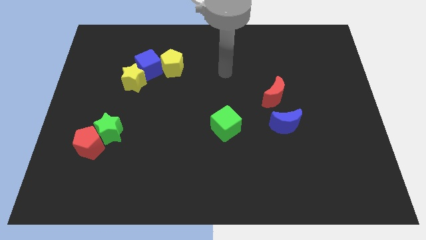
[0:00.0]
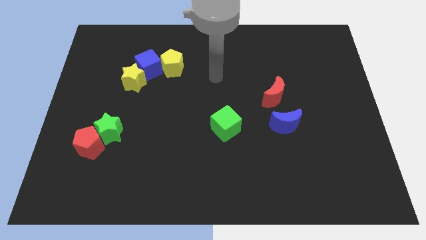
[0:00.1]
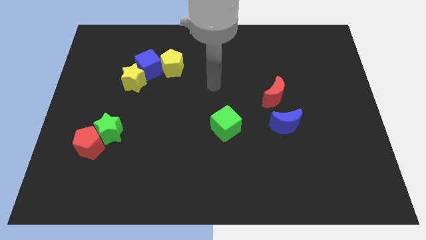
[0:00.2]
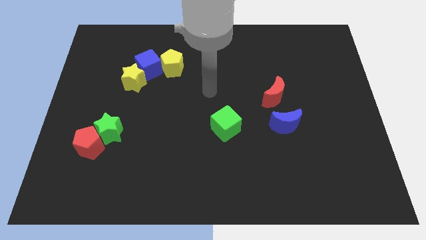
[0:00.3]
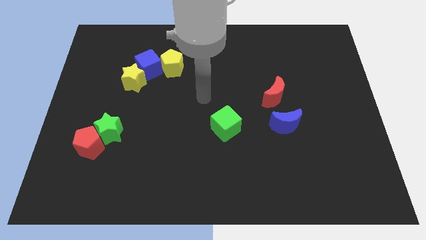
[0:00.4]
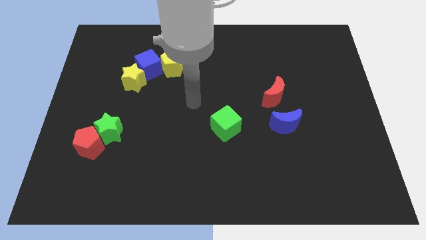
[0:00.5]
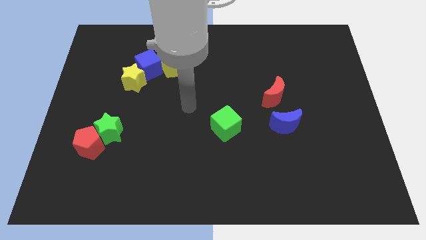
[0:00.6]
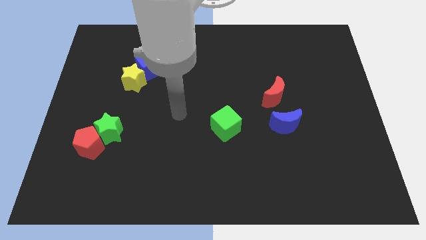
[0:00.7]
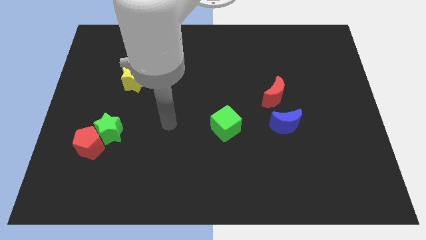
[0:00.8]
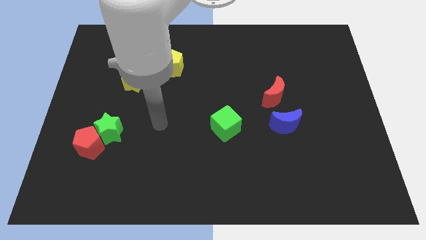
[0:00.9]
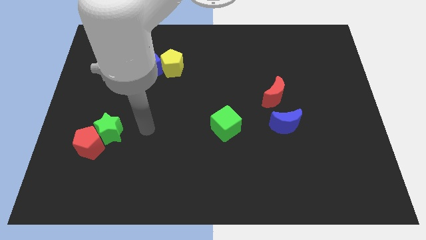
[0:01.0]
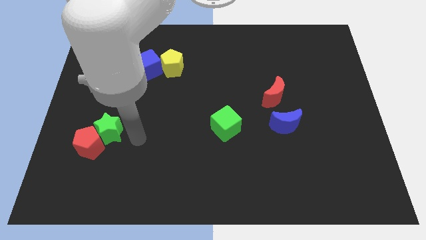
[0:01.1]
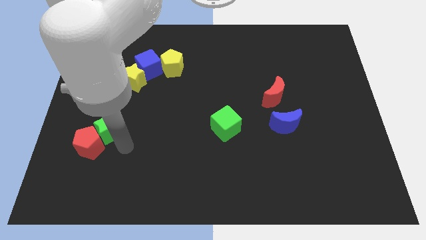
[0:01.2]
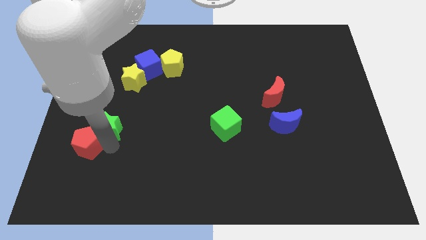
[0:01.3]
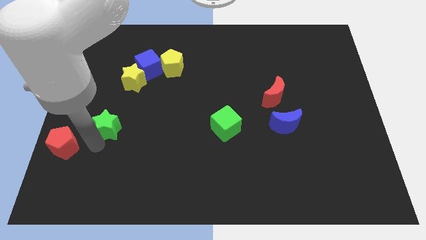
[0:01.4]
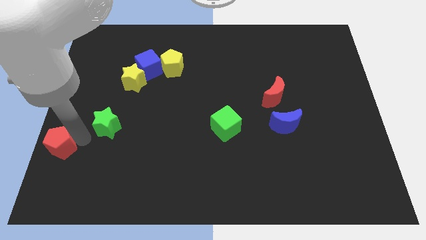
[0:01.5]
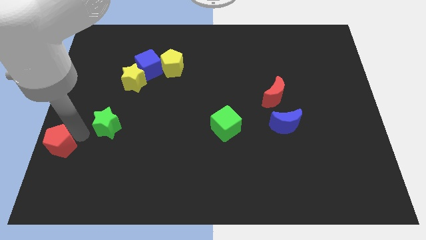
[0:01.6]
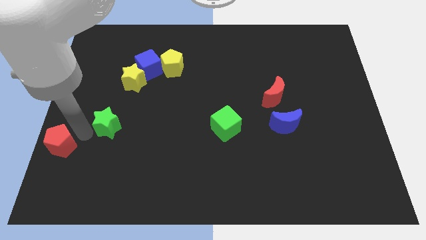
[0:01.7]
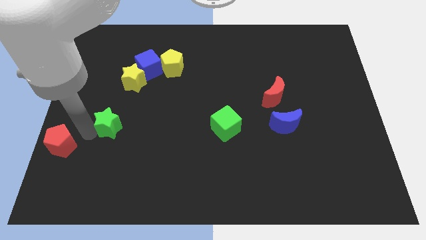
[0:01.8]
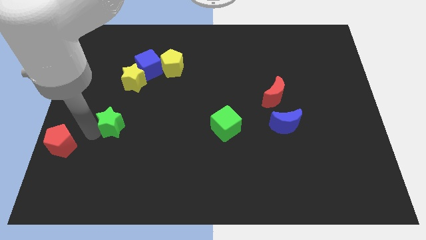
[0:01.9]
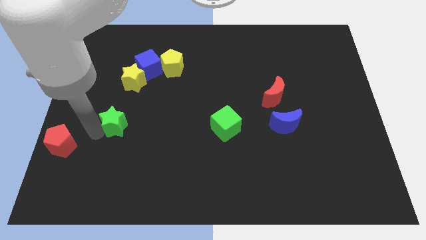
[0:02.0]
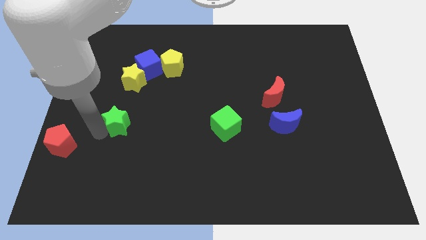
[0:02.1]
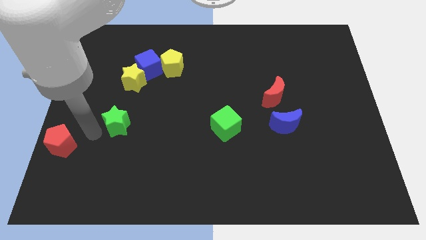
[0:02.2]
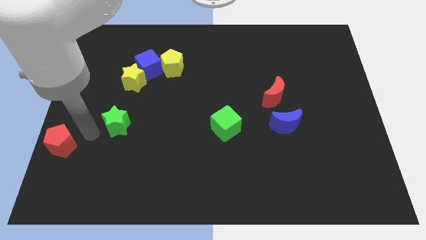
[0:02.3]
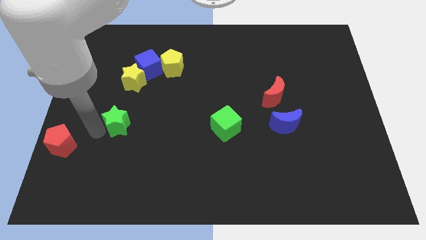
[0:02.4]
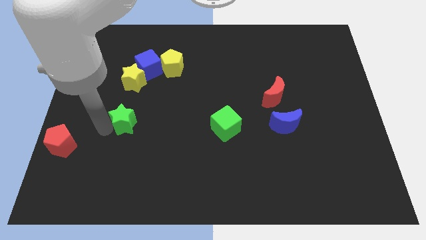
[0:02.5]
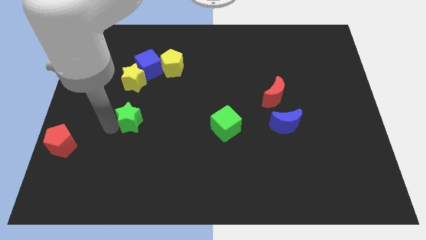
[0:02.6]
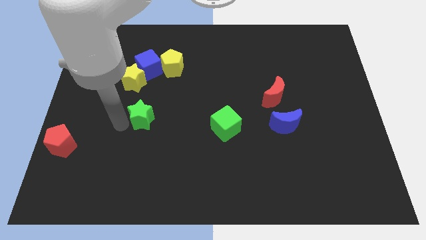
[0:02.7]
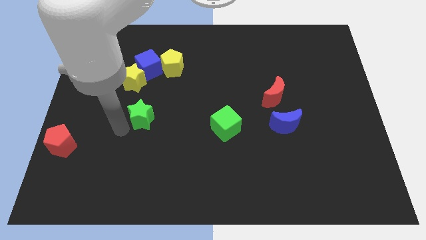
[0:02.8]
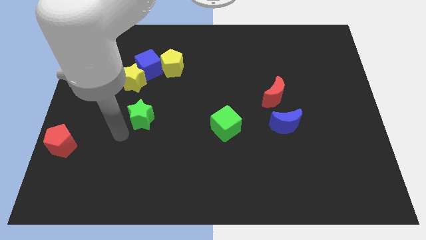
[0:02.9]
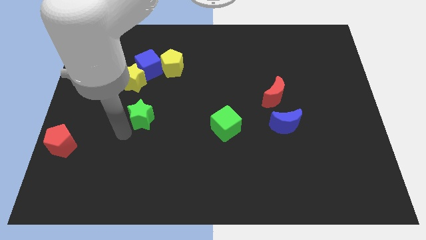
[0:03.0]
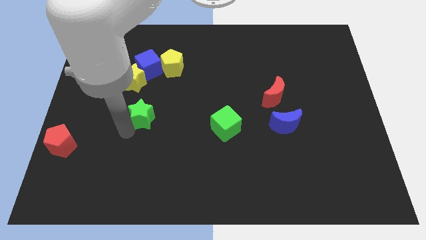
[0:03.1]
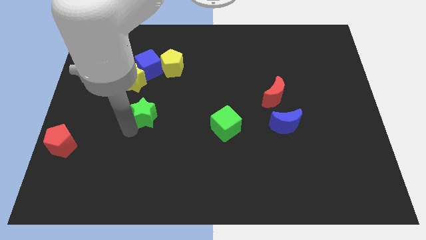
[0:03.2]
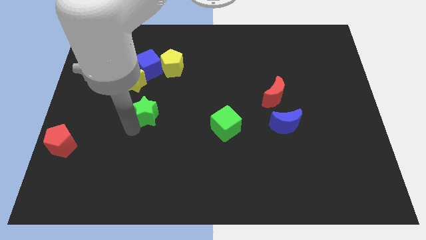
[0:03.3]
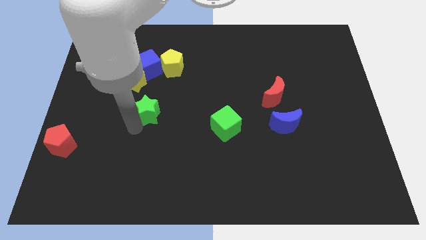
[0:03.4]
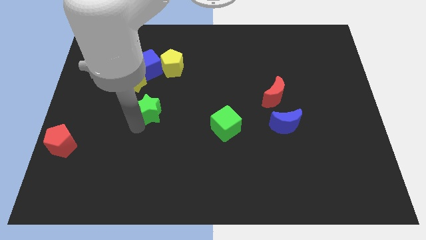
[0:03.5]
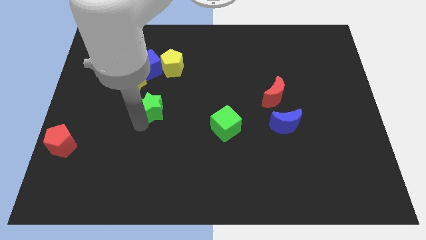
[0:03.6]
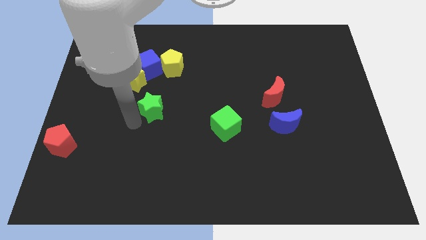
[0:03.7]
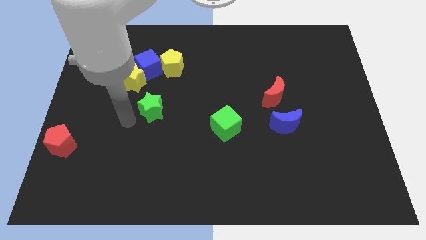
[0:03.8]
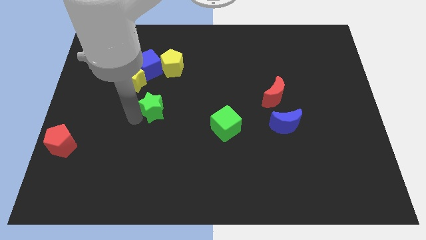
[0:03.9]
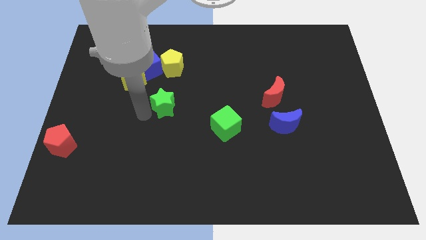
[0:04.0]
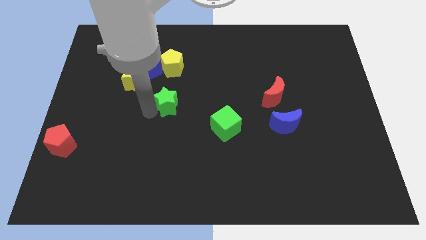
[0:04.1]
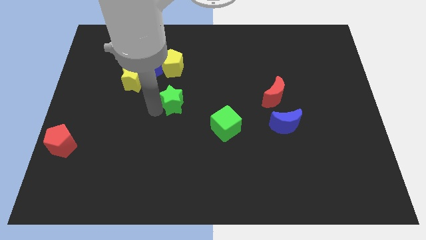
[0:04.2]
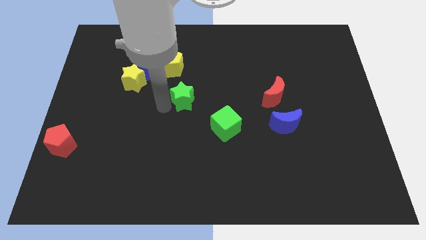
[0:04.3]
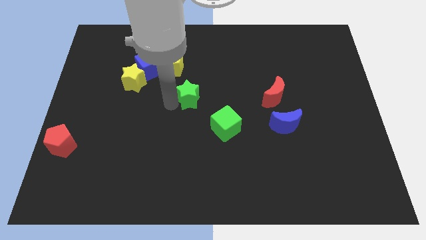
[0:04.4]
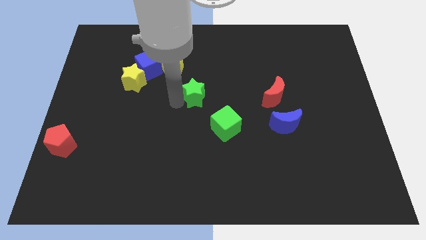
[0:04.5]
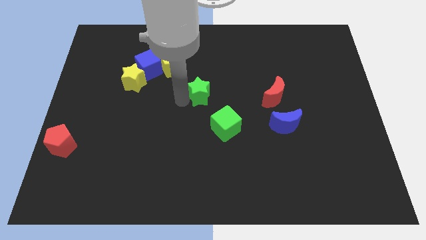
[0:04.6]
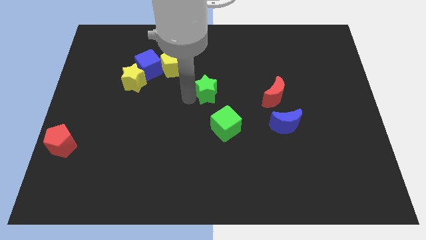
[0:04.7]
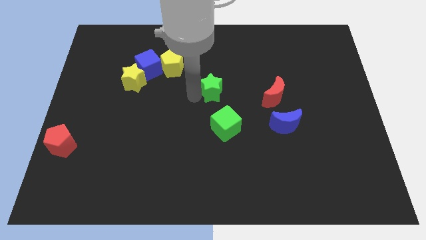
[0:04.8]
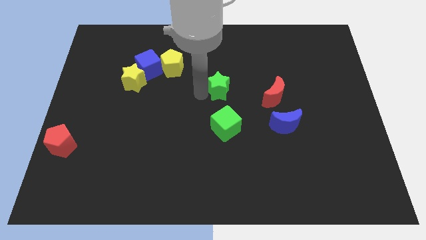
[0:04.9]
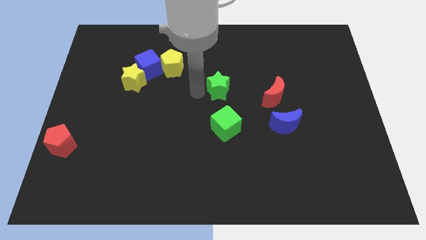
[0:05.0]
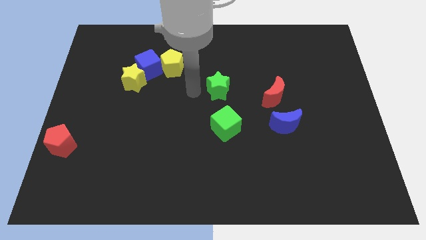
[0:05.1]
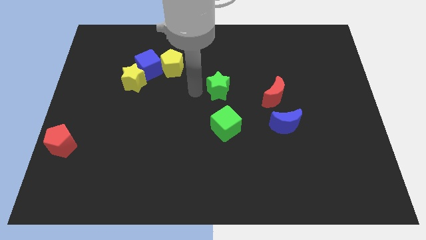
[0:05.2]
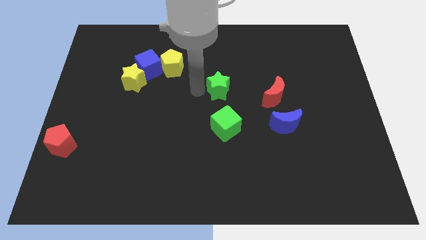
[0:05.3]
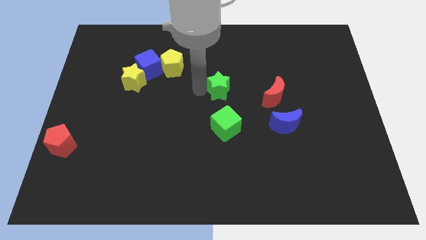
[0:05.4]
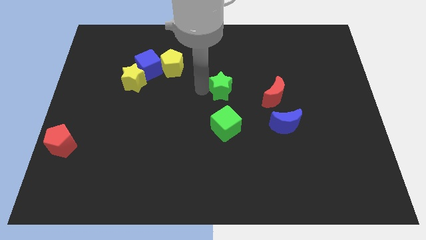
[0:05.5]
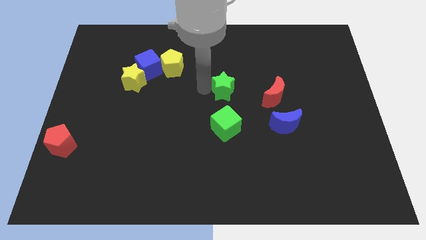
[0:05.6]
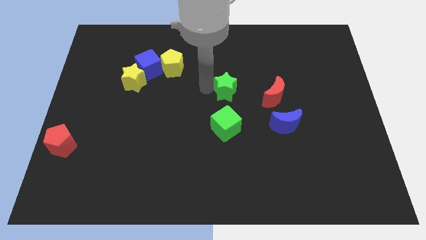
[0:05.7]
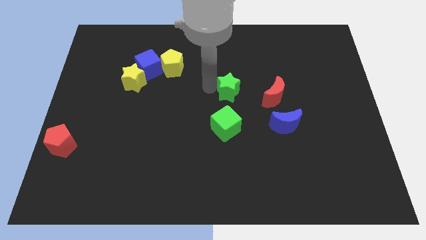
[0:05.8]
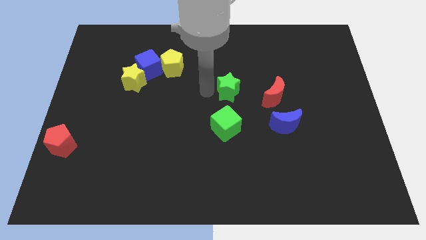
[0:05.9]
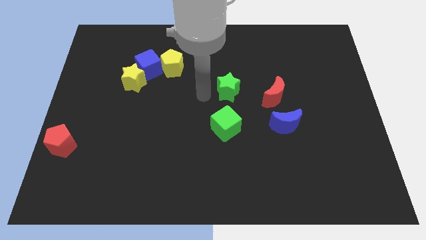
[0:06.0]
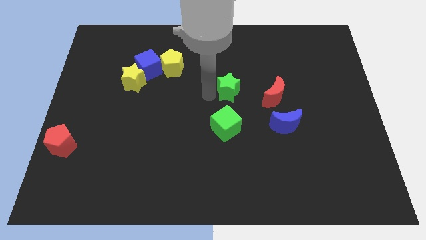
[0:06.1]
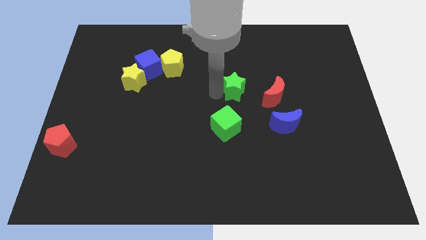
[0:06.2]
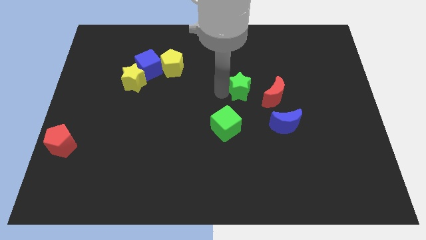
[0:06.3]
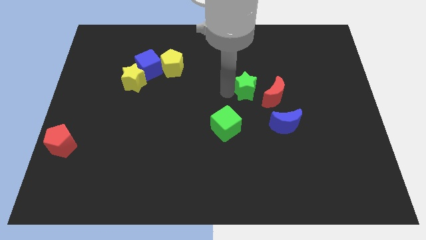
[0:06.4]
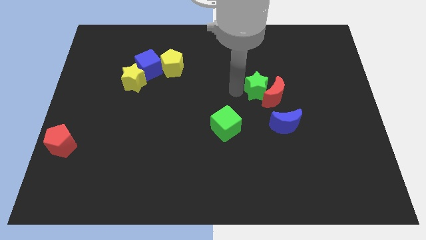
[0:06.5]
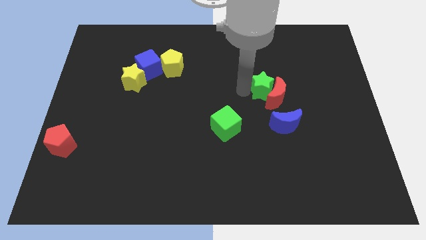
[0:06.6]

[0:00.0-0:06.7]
slide the green star above the blue moon
